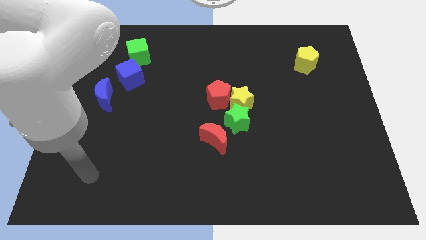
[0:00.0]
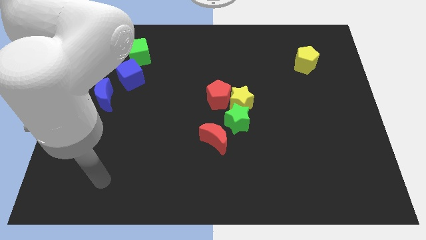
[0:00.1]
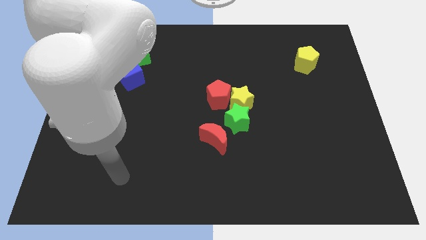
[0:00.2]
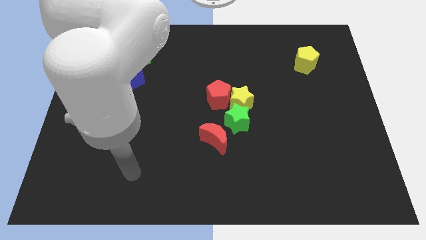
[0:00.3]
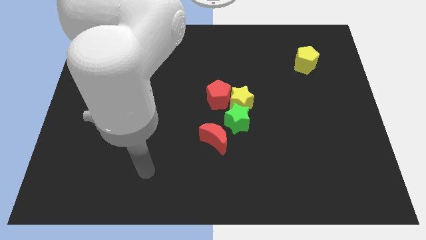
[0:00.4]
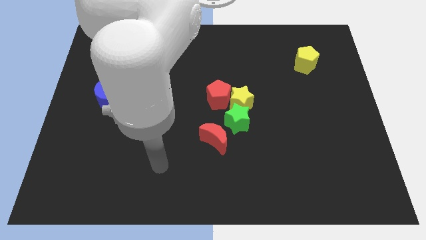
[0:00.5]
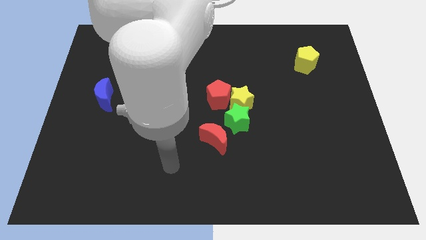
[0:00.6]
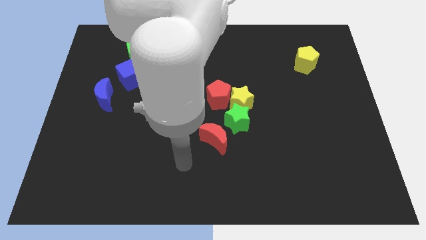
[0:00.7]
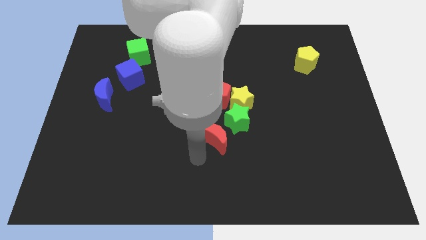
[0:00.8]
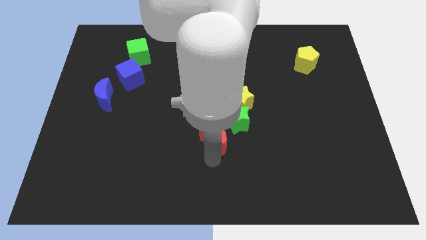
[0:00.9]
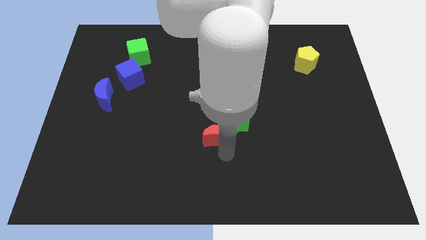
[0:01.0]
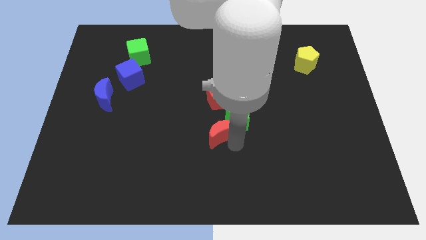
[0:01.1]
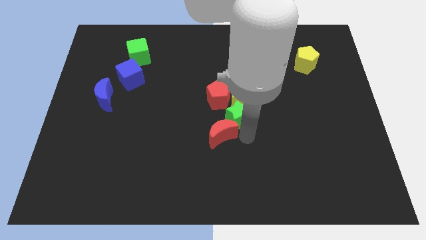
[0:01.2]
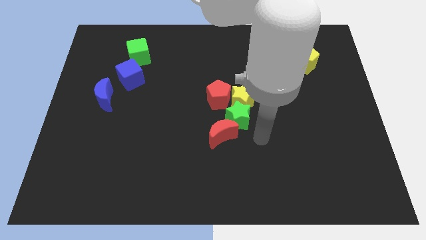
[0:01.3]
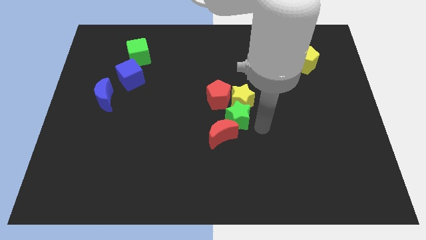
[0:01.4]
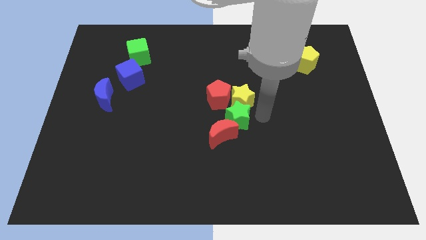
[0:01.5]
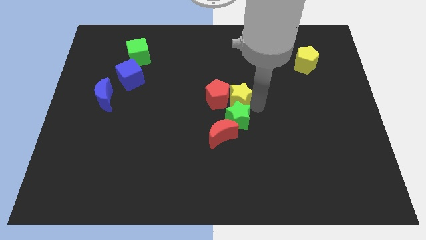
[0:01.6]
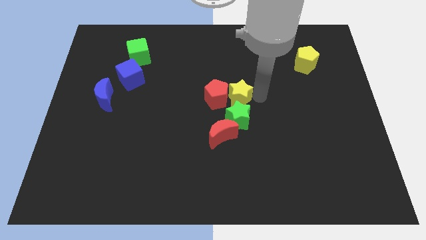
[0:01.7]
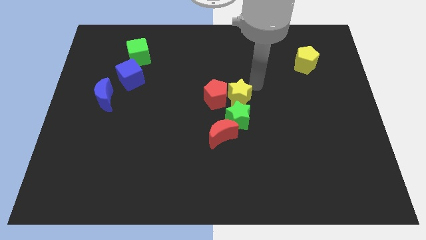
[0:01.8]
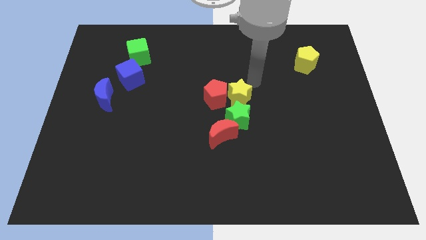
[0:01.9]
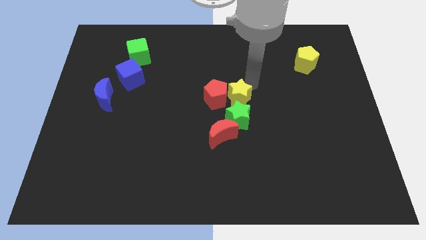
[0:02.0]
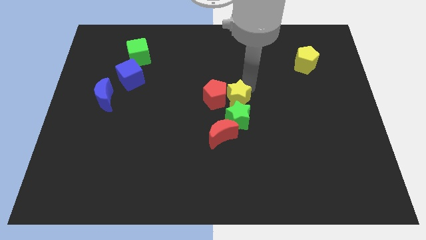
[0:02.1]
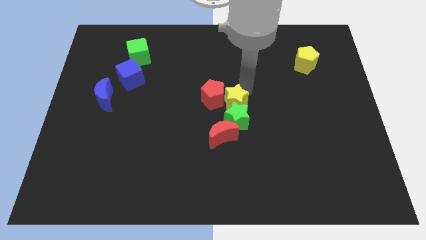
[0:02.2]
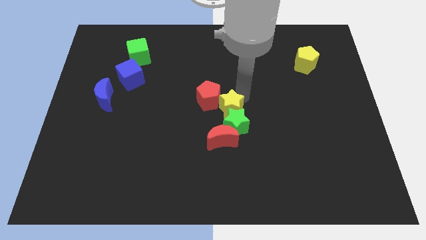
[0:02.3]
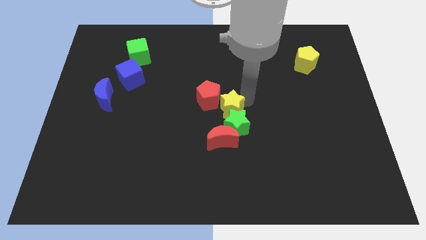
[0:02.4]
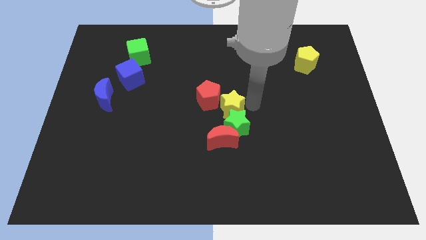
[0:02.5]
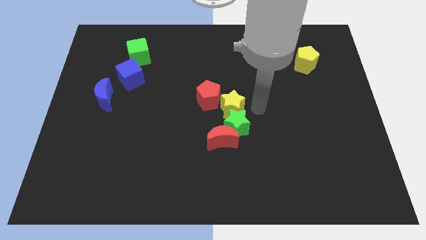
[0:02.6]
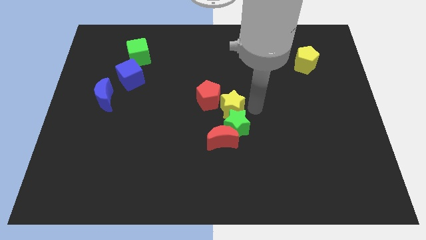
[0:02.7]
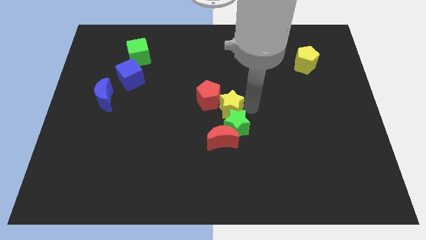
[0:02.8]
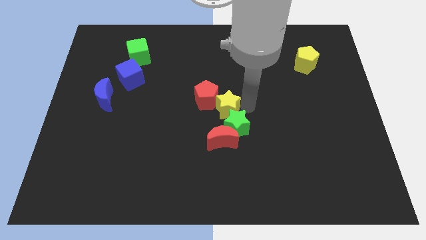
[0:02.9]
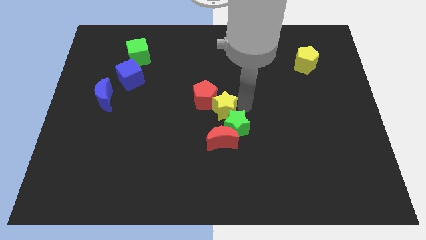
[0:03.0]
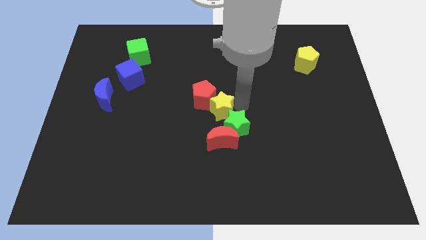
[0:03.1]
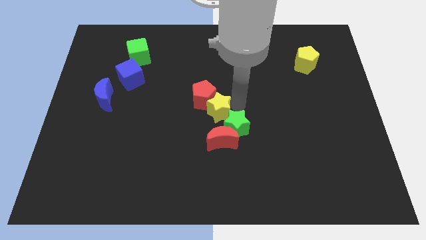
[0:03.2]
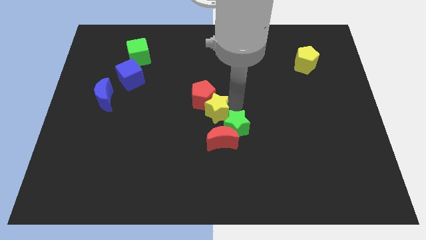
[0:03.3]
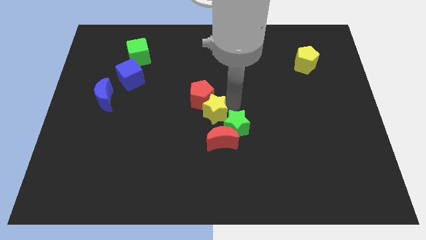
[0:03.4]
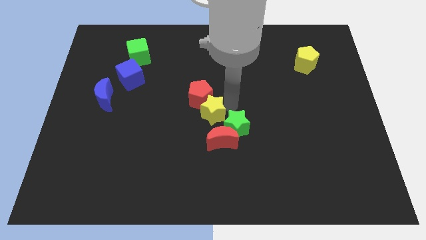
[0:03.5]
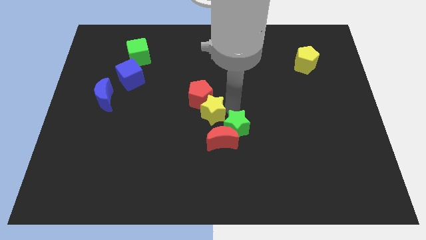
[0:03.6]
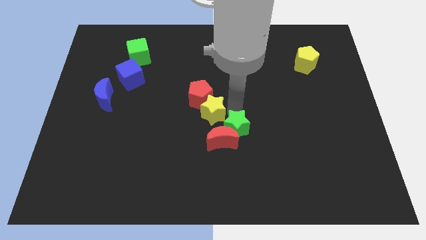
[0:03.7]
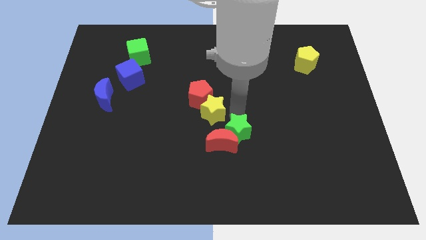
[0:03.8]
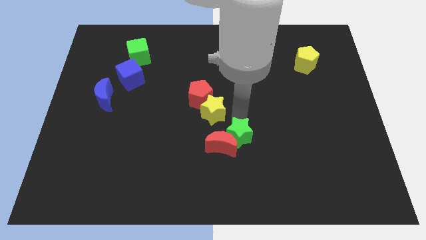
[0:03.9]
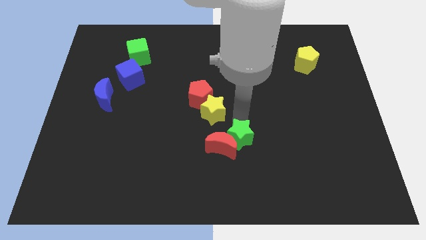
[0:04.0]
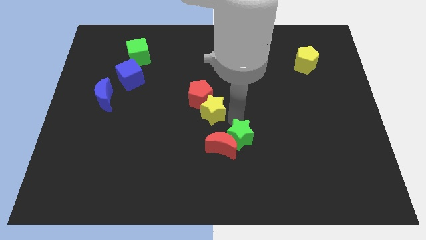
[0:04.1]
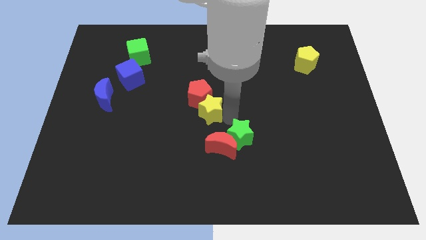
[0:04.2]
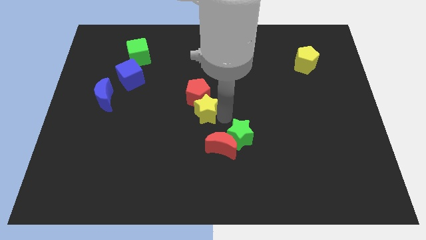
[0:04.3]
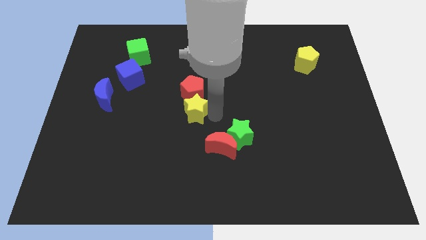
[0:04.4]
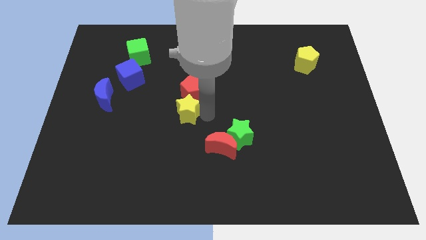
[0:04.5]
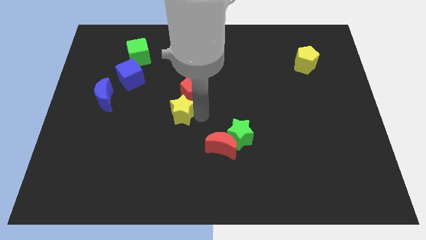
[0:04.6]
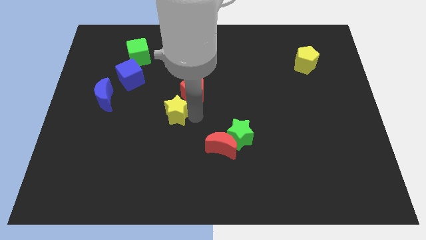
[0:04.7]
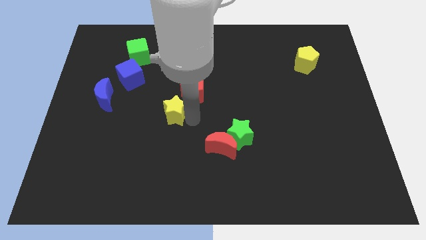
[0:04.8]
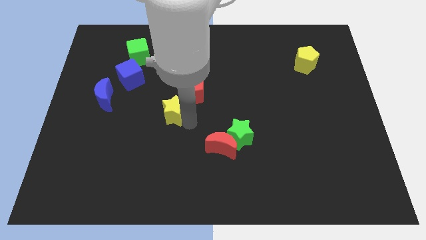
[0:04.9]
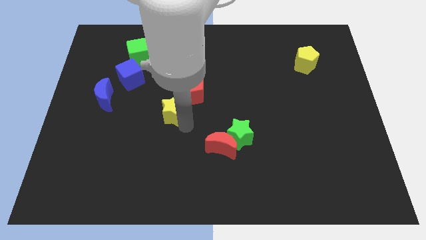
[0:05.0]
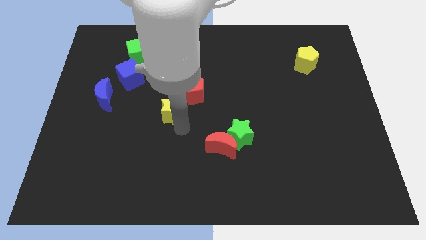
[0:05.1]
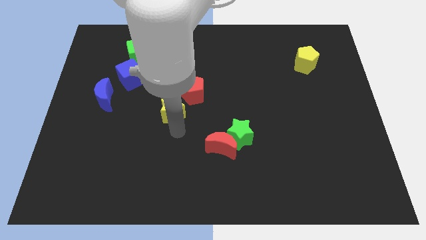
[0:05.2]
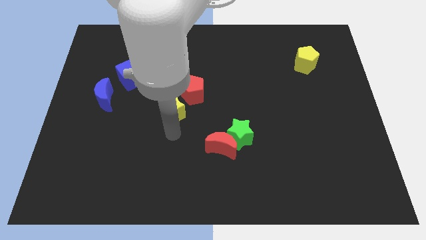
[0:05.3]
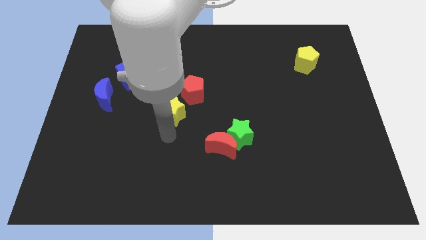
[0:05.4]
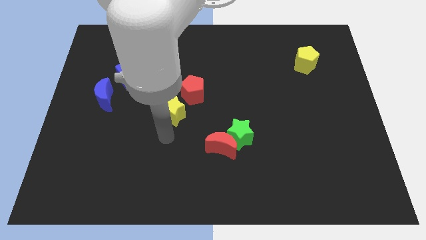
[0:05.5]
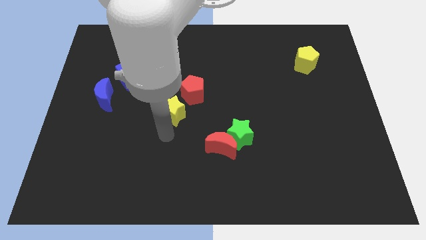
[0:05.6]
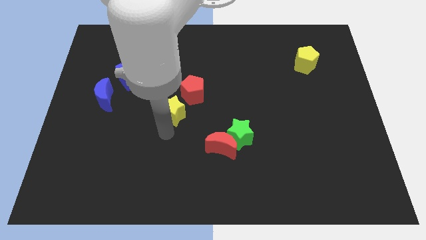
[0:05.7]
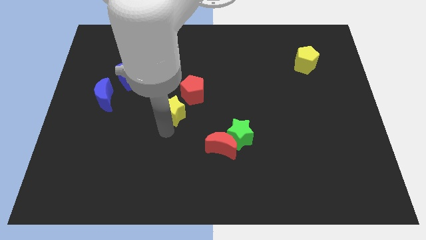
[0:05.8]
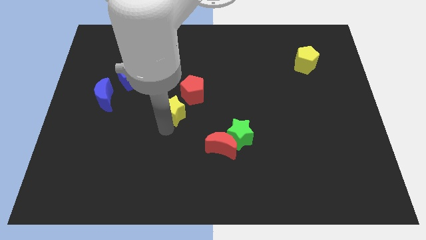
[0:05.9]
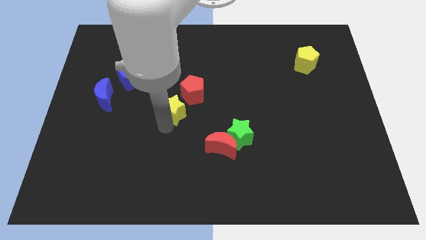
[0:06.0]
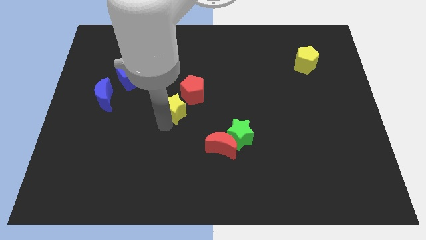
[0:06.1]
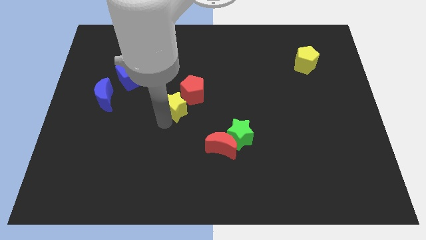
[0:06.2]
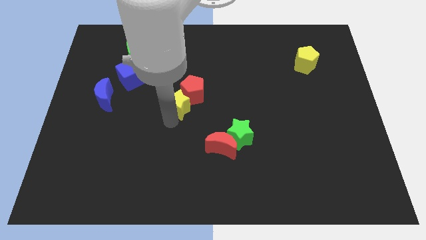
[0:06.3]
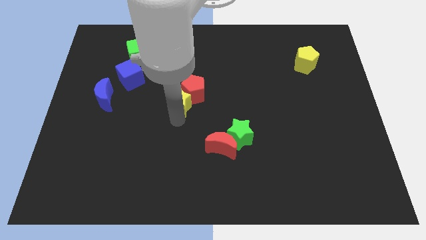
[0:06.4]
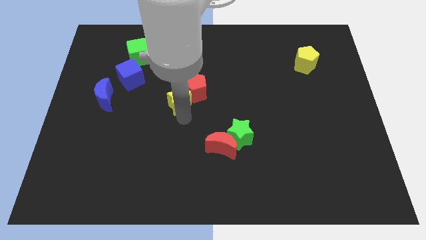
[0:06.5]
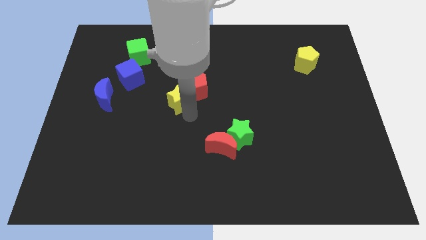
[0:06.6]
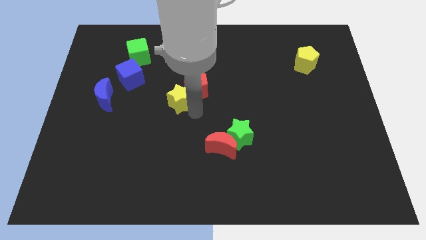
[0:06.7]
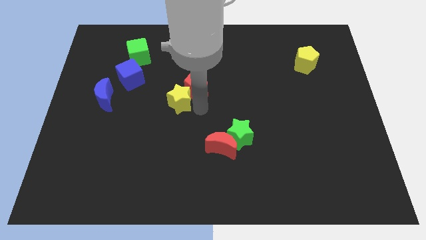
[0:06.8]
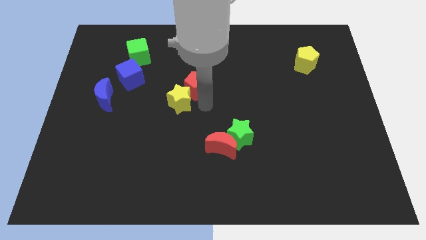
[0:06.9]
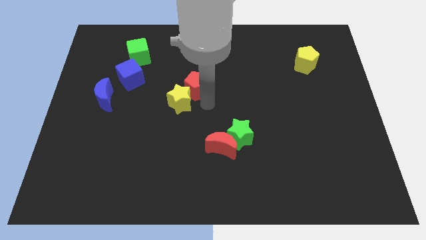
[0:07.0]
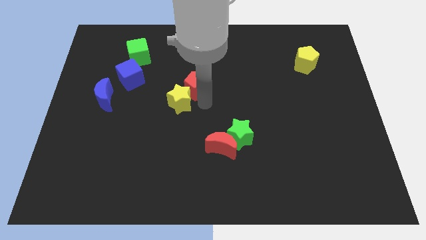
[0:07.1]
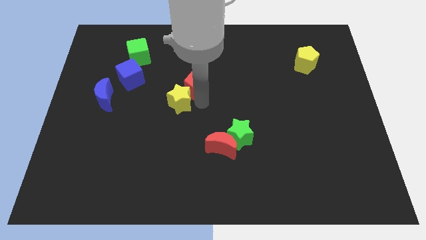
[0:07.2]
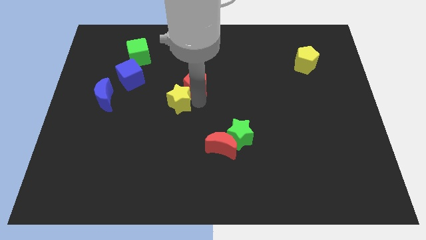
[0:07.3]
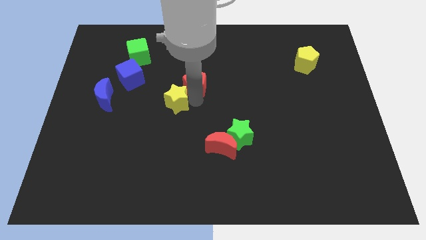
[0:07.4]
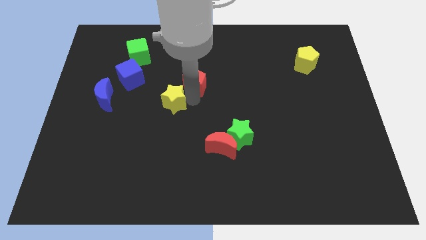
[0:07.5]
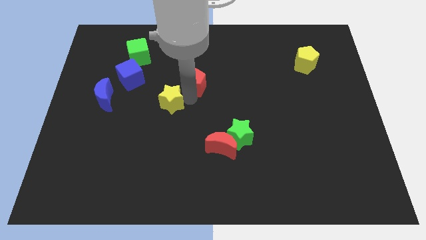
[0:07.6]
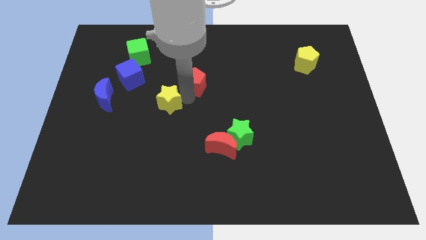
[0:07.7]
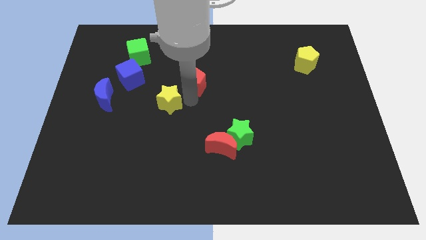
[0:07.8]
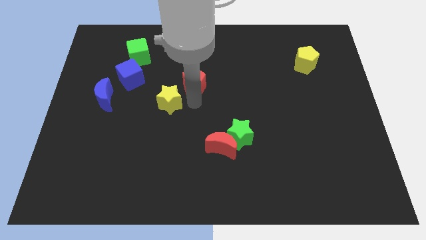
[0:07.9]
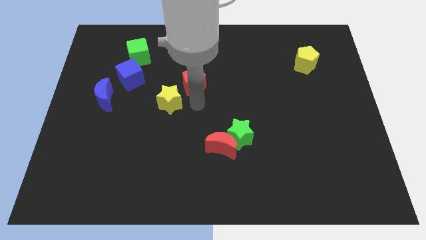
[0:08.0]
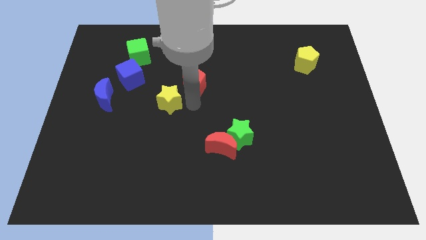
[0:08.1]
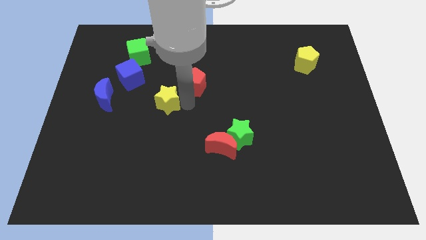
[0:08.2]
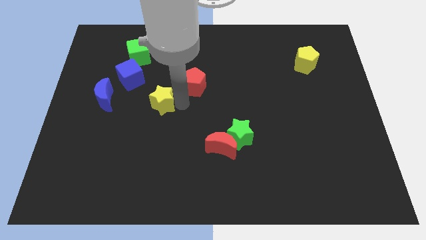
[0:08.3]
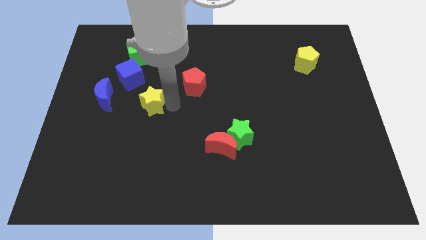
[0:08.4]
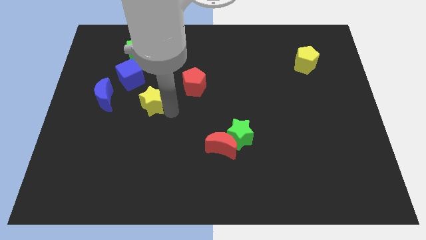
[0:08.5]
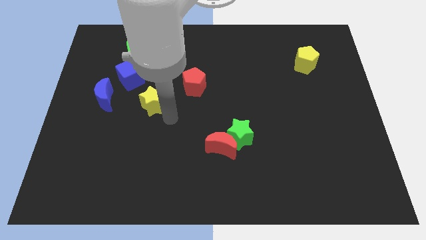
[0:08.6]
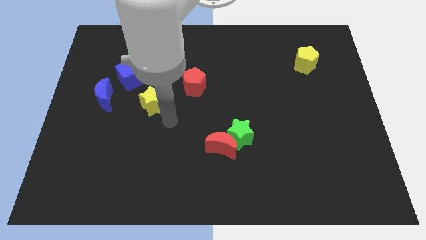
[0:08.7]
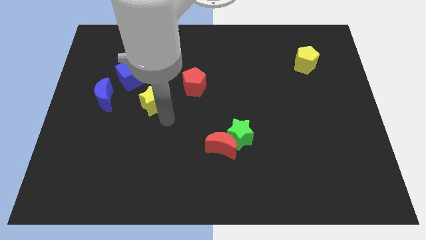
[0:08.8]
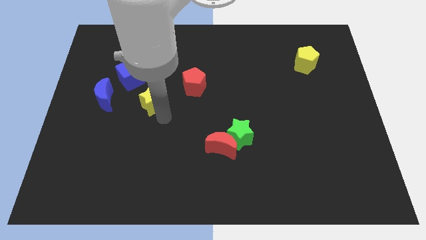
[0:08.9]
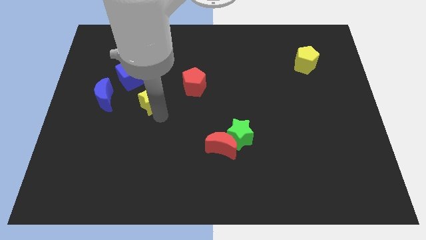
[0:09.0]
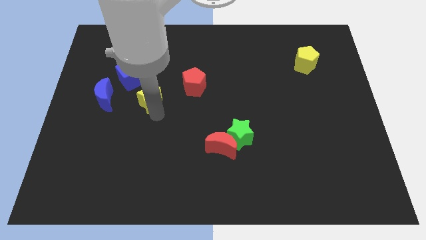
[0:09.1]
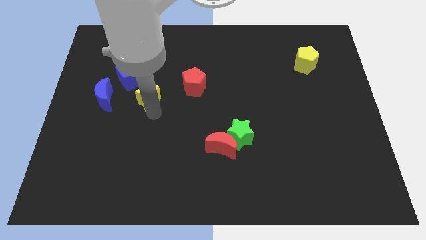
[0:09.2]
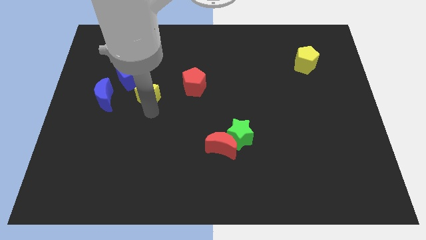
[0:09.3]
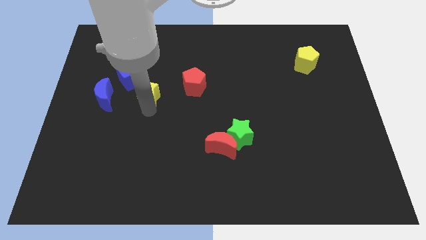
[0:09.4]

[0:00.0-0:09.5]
put the yellow star to the bottom of the green cube
